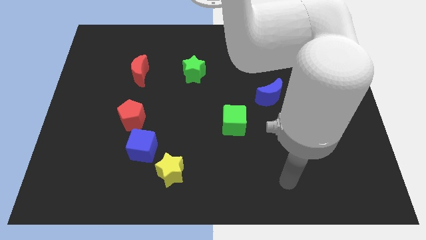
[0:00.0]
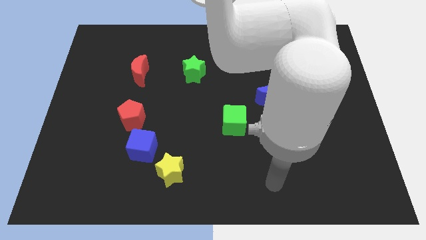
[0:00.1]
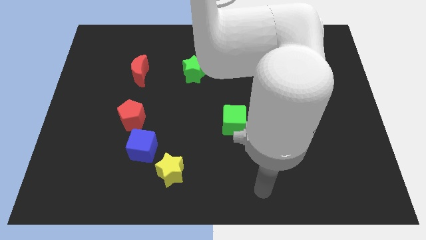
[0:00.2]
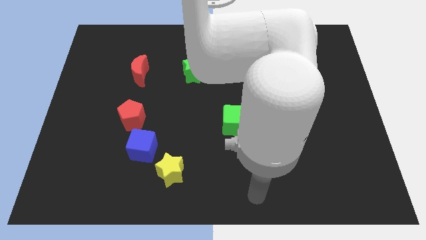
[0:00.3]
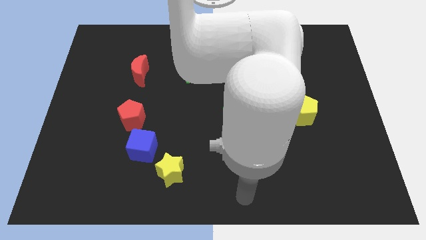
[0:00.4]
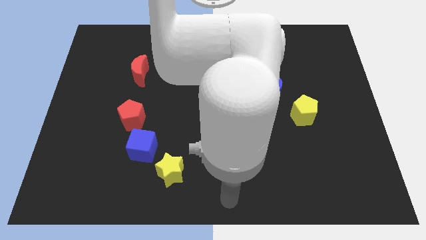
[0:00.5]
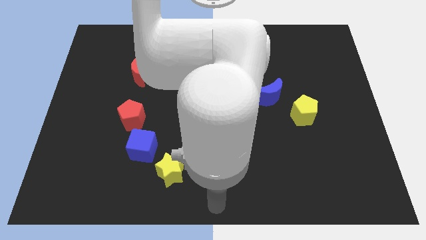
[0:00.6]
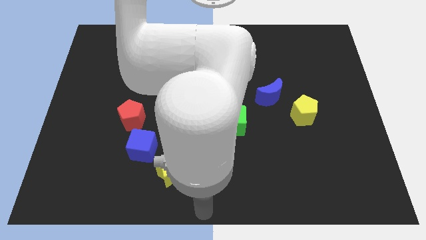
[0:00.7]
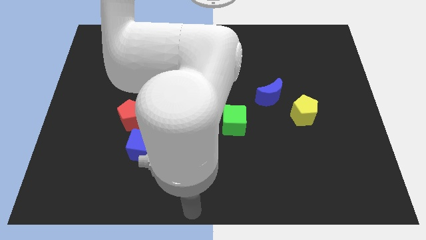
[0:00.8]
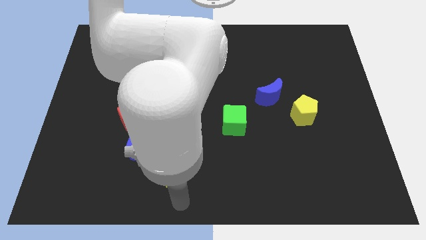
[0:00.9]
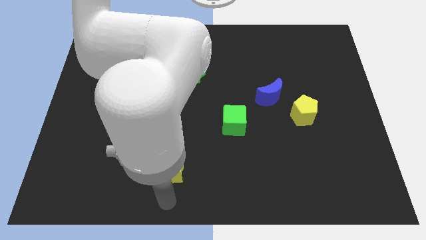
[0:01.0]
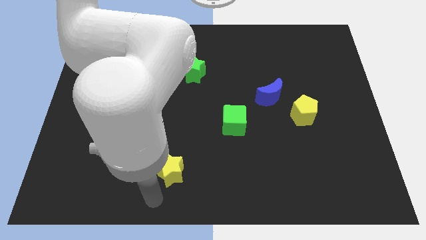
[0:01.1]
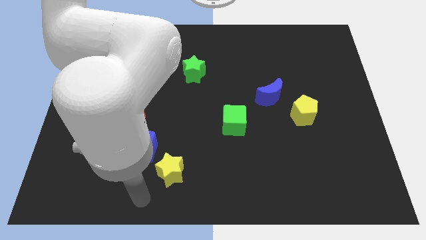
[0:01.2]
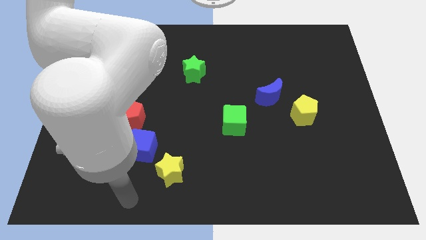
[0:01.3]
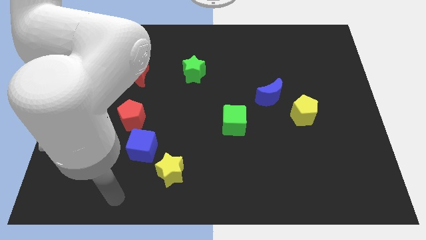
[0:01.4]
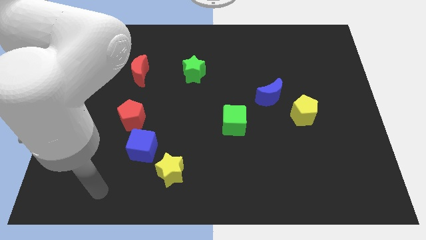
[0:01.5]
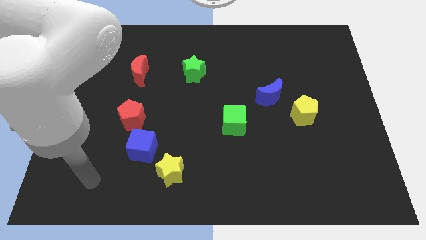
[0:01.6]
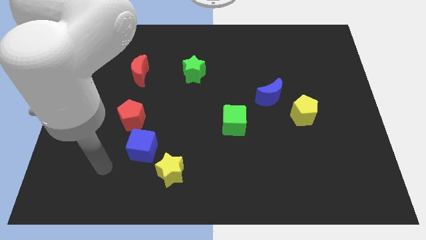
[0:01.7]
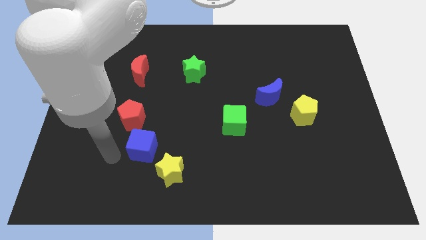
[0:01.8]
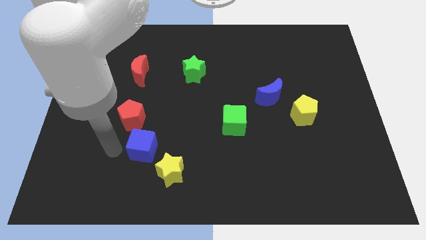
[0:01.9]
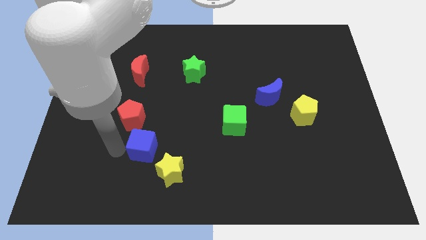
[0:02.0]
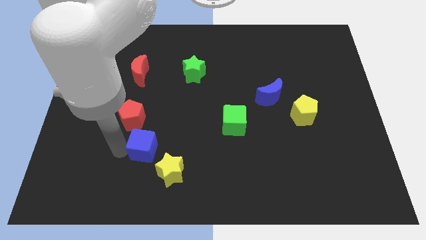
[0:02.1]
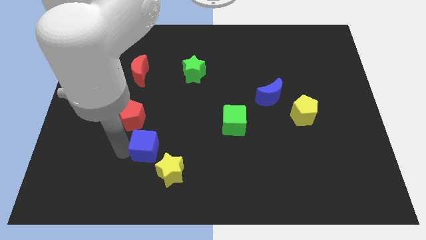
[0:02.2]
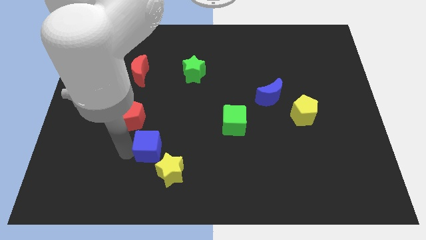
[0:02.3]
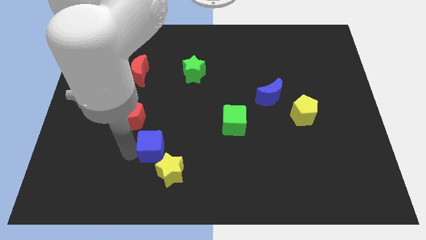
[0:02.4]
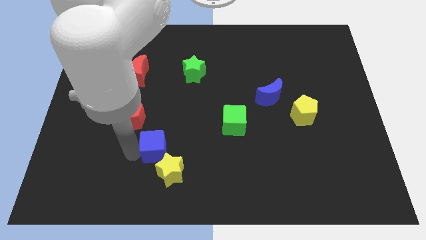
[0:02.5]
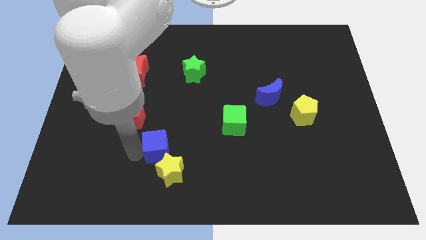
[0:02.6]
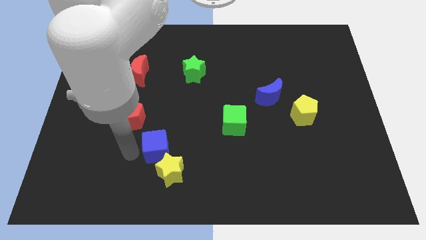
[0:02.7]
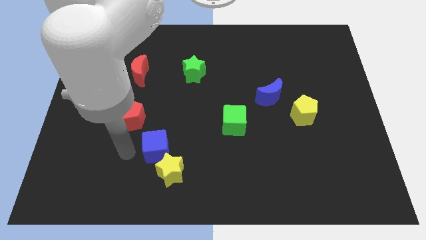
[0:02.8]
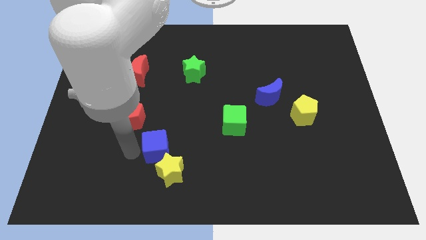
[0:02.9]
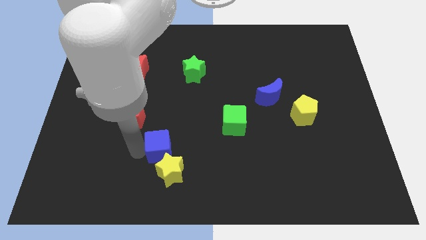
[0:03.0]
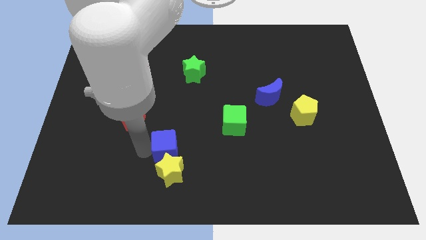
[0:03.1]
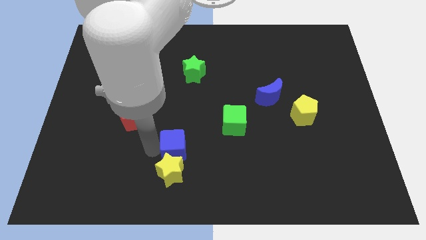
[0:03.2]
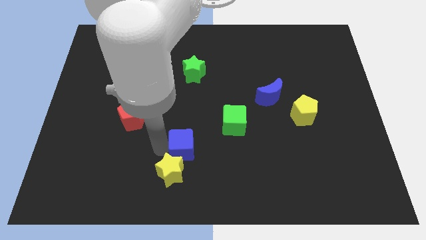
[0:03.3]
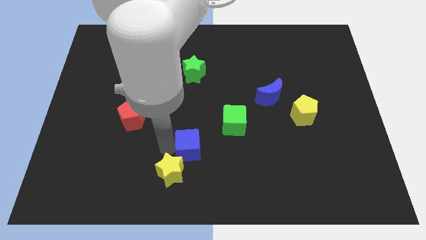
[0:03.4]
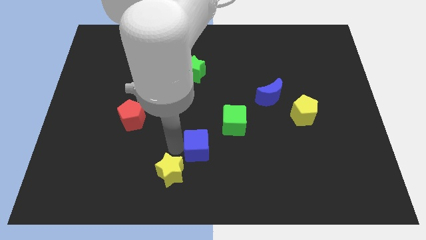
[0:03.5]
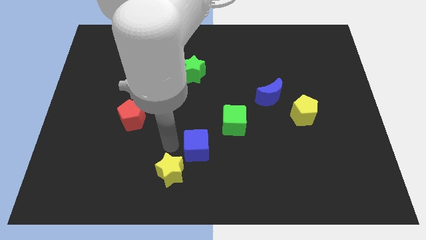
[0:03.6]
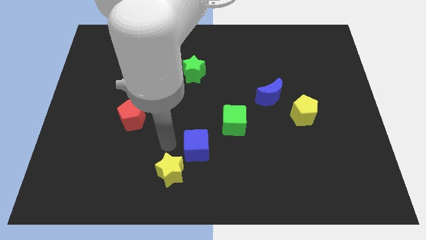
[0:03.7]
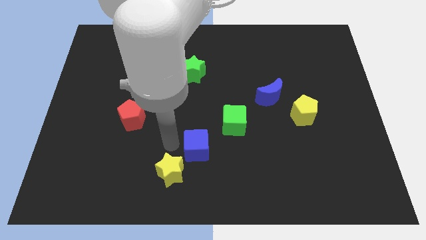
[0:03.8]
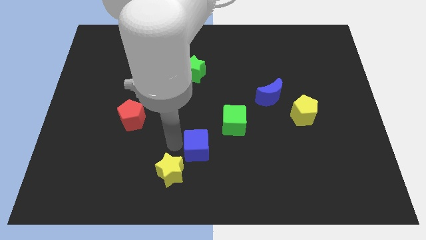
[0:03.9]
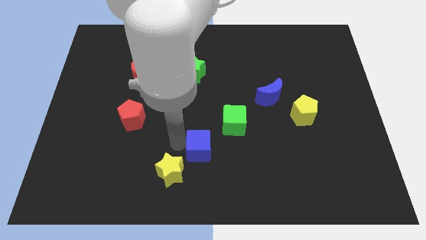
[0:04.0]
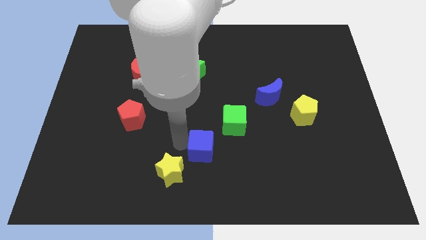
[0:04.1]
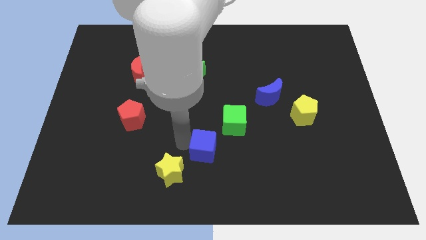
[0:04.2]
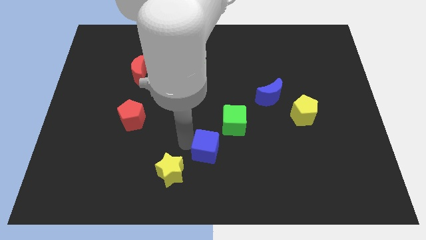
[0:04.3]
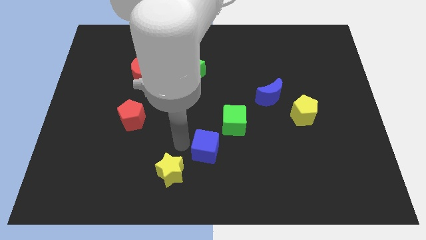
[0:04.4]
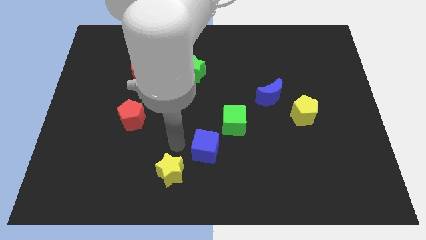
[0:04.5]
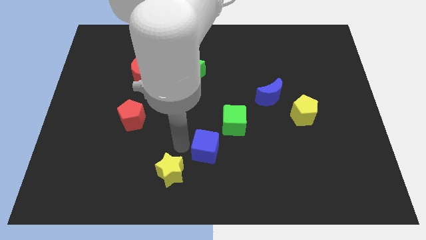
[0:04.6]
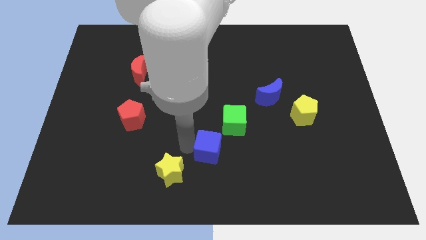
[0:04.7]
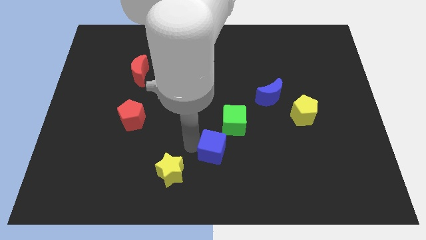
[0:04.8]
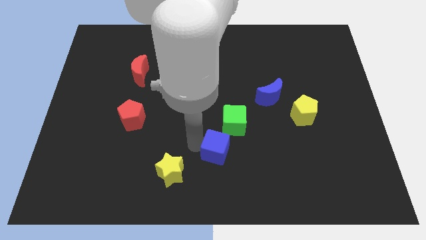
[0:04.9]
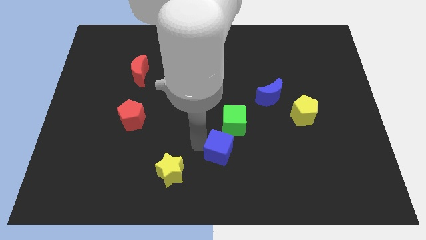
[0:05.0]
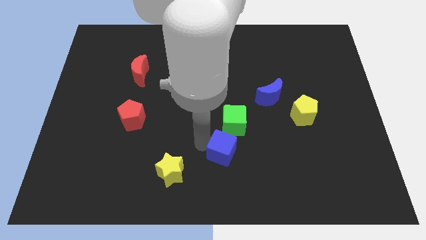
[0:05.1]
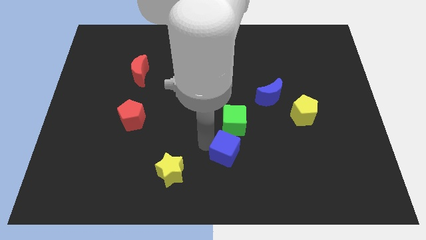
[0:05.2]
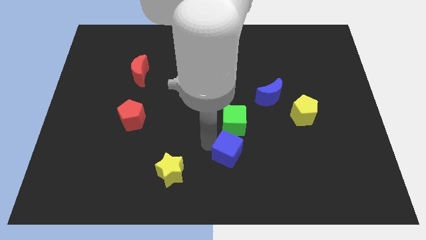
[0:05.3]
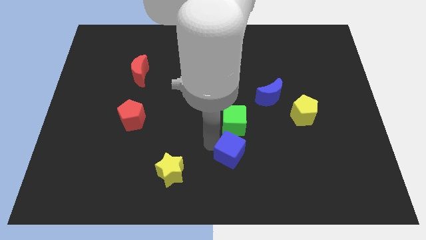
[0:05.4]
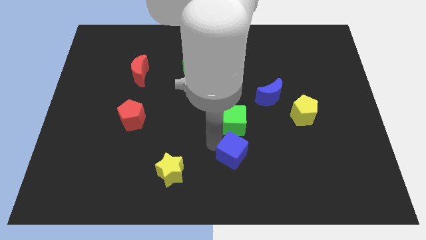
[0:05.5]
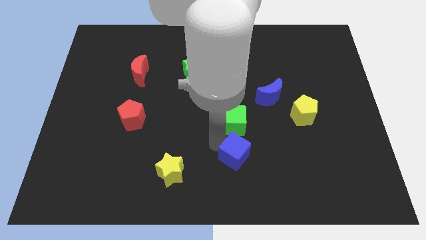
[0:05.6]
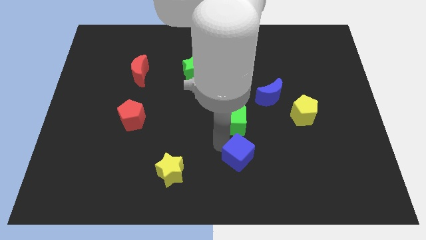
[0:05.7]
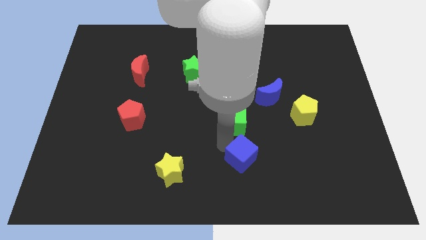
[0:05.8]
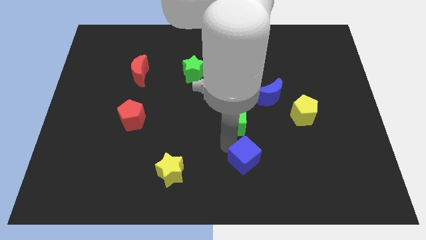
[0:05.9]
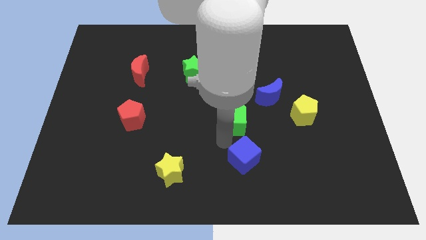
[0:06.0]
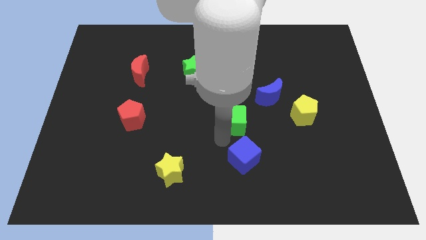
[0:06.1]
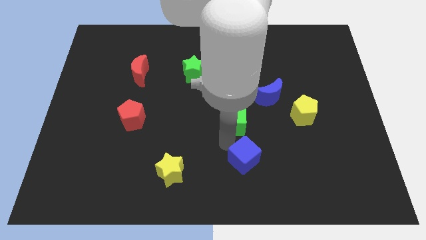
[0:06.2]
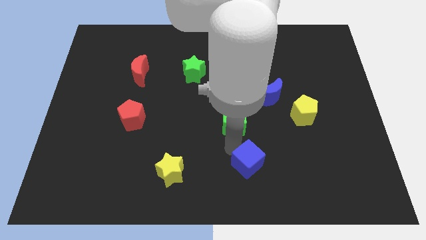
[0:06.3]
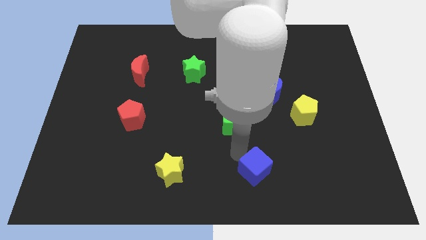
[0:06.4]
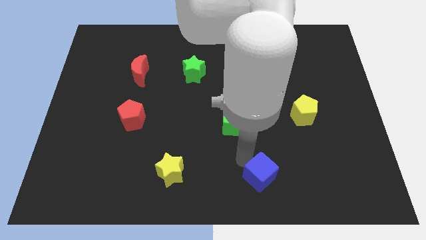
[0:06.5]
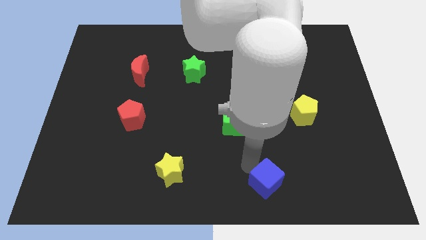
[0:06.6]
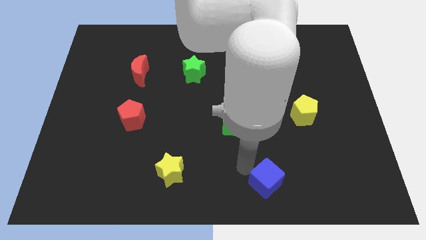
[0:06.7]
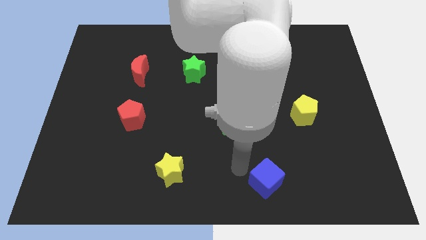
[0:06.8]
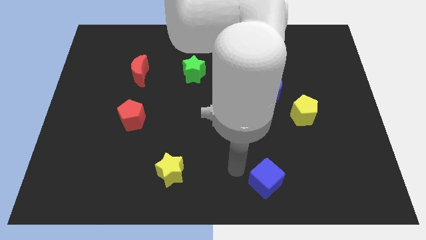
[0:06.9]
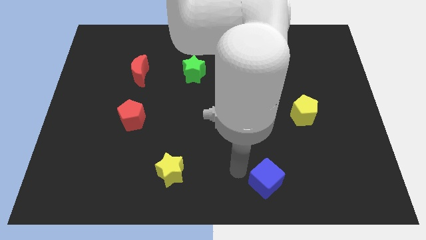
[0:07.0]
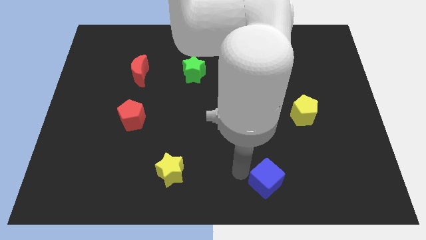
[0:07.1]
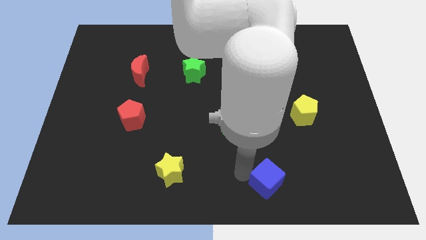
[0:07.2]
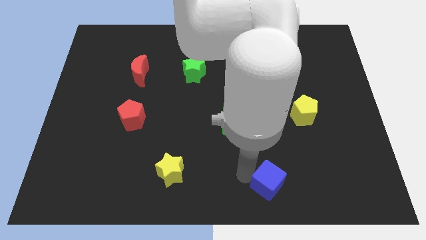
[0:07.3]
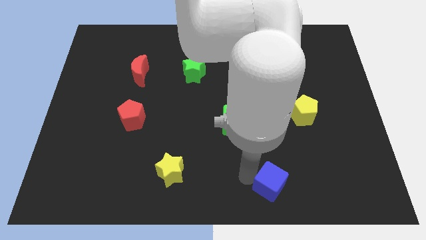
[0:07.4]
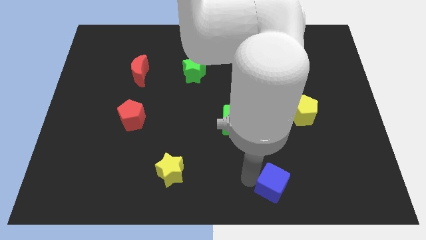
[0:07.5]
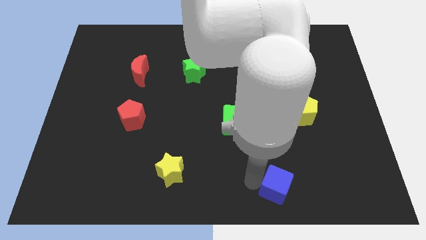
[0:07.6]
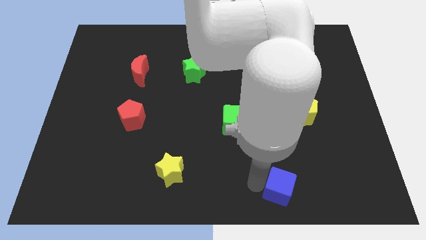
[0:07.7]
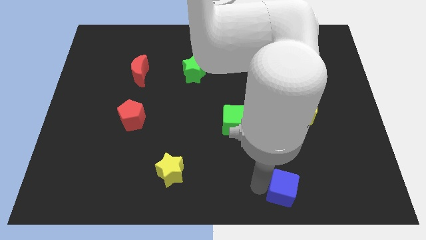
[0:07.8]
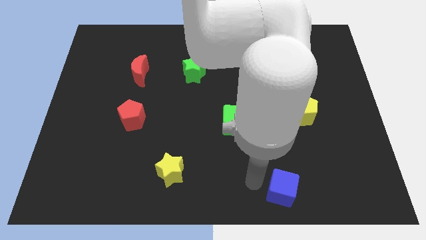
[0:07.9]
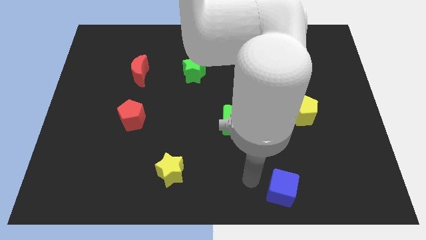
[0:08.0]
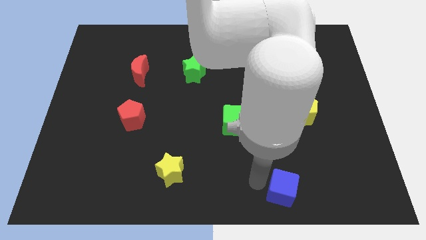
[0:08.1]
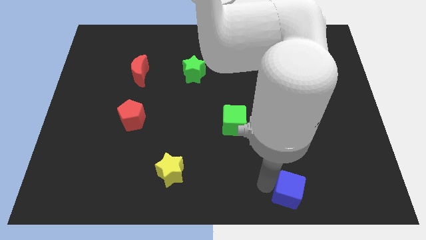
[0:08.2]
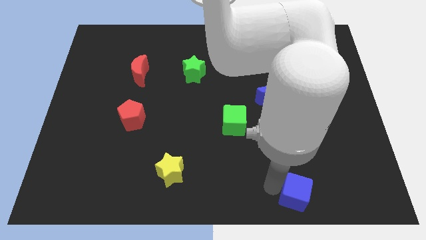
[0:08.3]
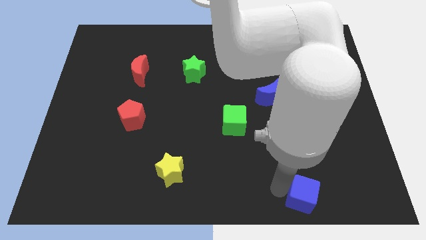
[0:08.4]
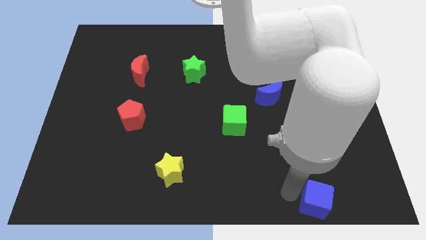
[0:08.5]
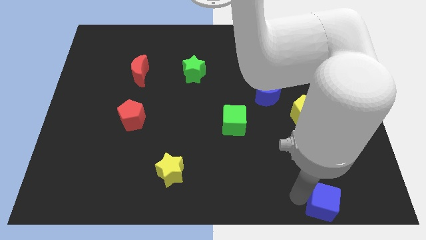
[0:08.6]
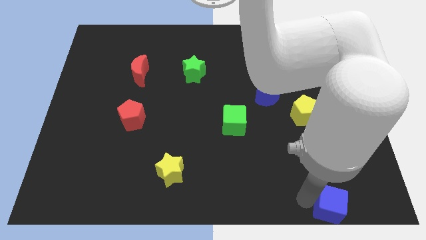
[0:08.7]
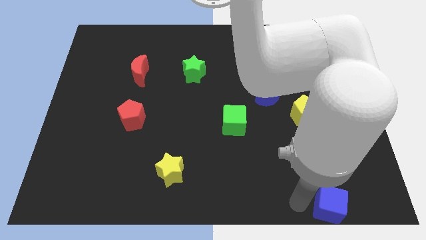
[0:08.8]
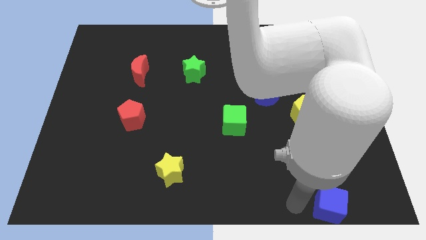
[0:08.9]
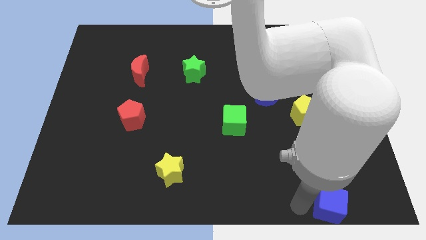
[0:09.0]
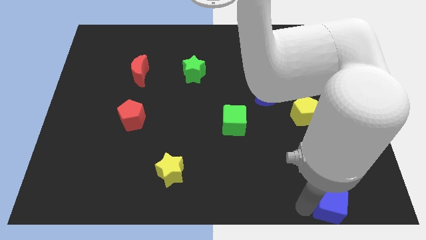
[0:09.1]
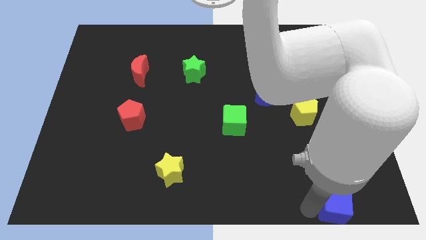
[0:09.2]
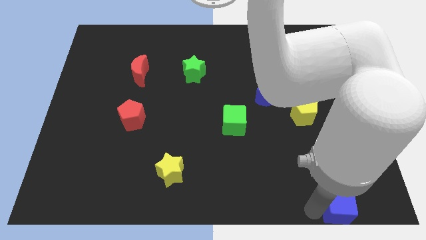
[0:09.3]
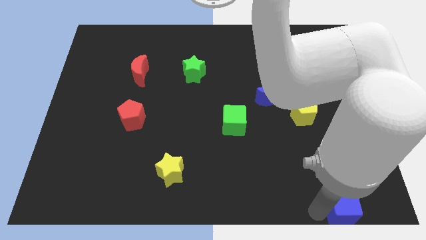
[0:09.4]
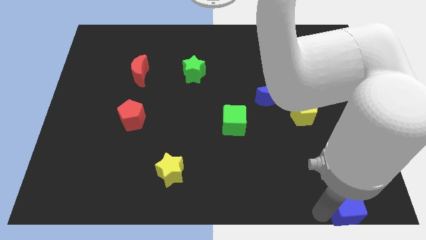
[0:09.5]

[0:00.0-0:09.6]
move the blue cube to the bottom right
